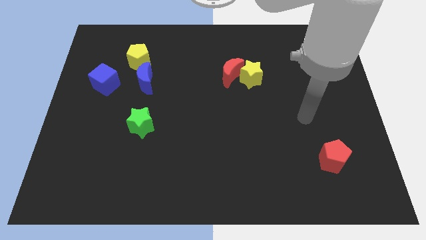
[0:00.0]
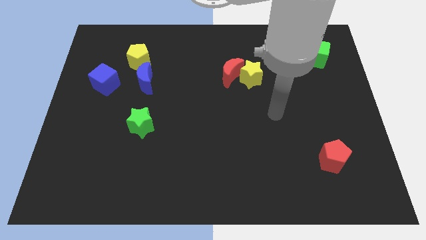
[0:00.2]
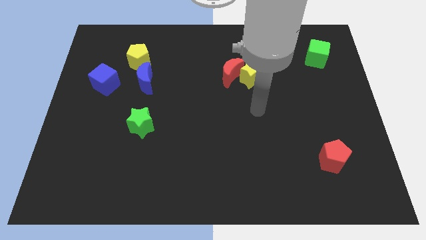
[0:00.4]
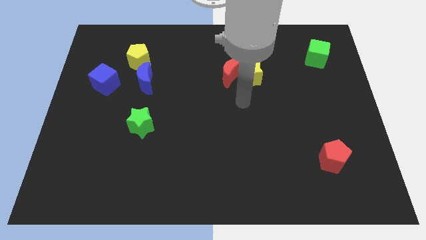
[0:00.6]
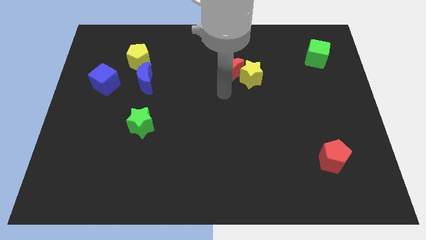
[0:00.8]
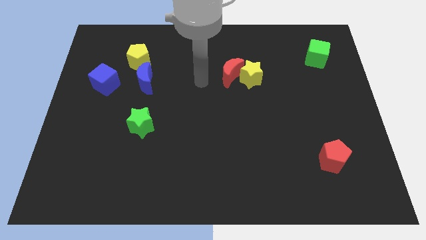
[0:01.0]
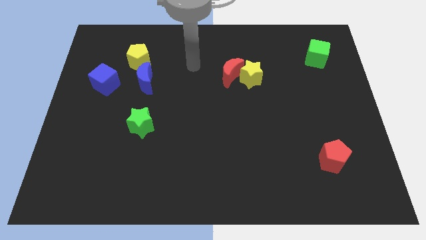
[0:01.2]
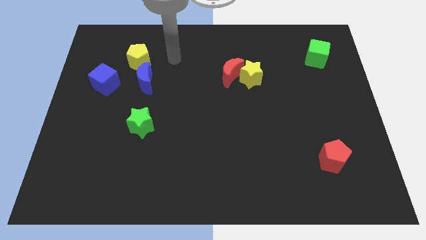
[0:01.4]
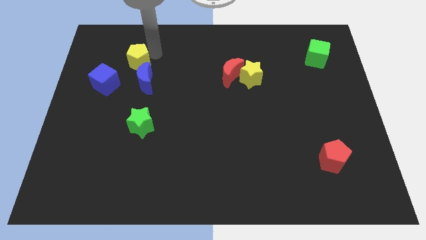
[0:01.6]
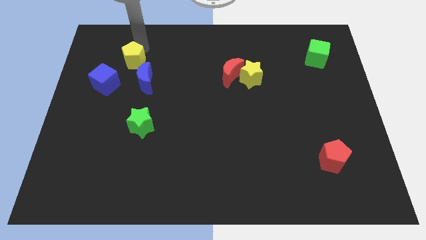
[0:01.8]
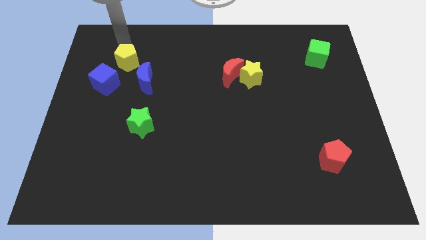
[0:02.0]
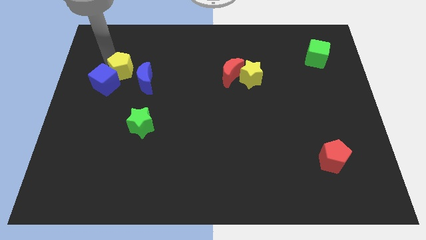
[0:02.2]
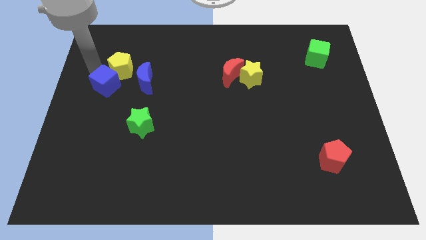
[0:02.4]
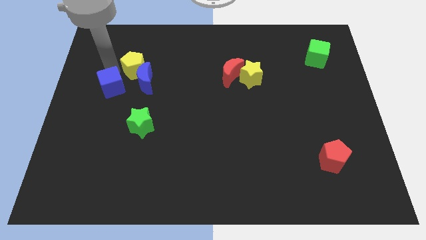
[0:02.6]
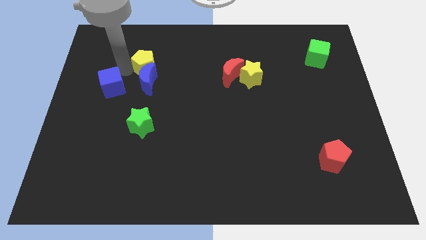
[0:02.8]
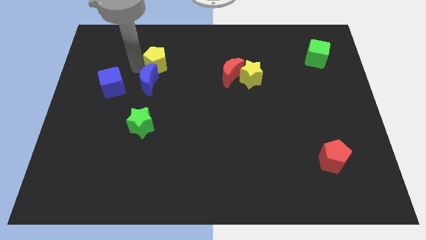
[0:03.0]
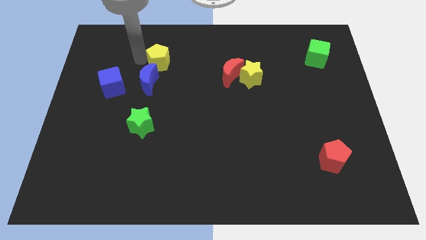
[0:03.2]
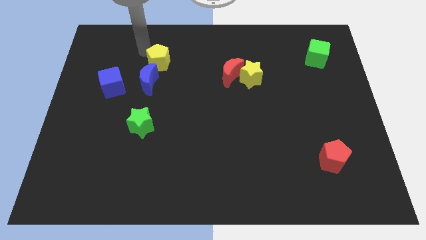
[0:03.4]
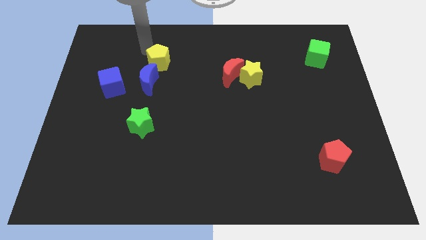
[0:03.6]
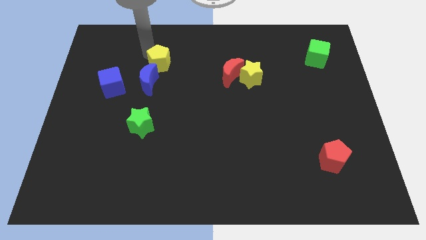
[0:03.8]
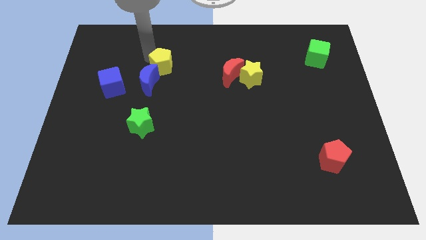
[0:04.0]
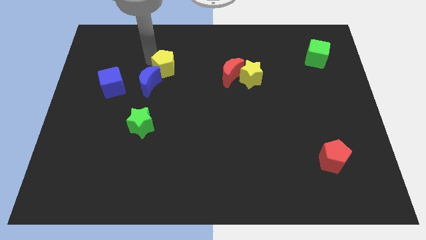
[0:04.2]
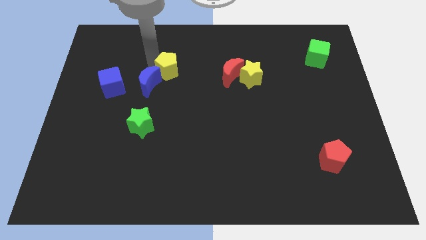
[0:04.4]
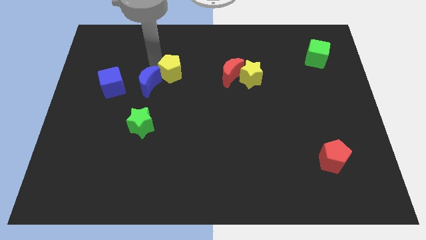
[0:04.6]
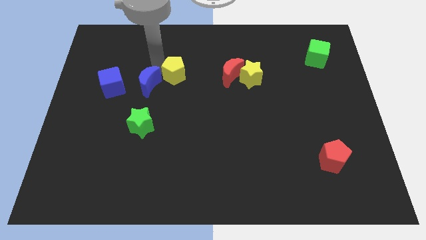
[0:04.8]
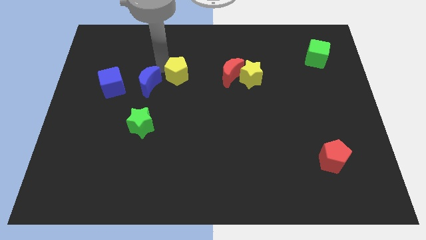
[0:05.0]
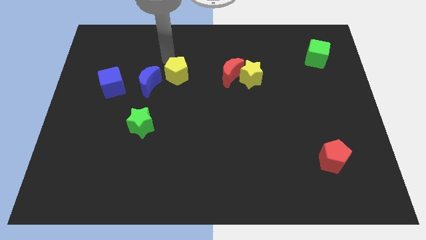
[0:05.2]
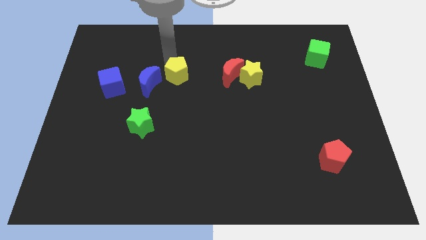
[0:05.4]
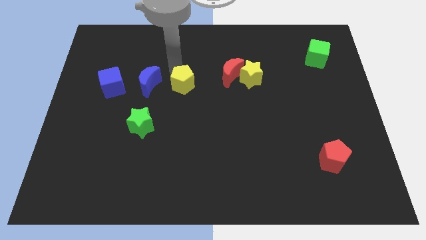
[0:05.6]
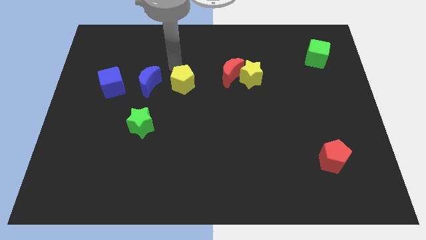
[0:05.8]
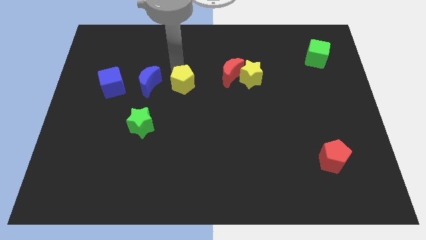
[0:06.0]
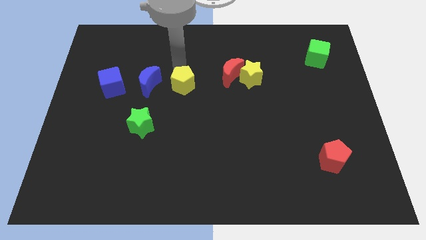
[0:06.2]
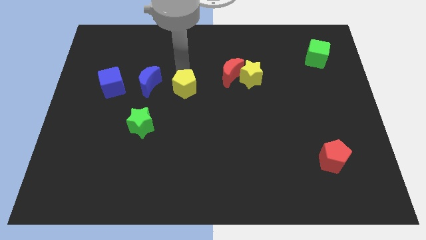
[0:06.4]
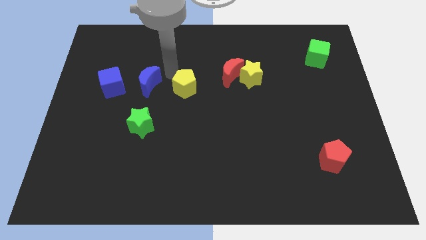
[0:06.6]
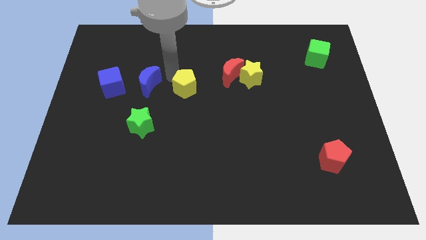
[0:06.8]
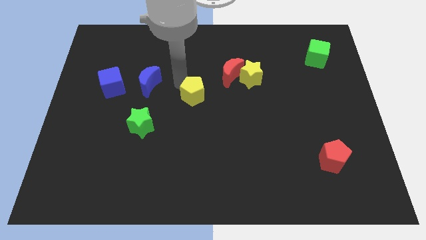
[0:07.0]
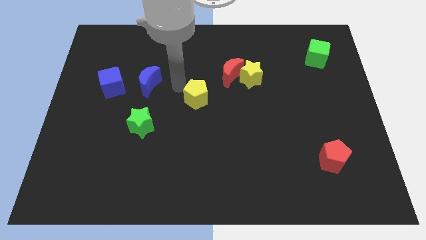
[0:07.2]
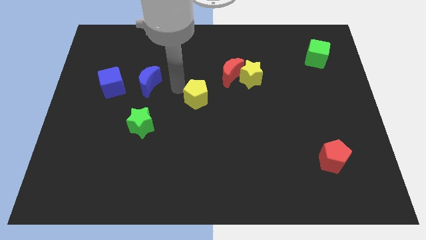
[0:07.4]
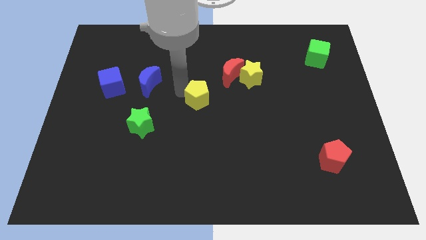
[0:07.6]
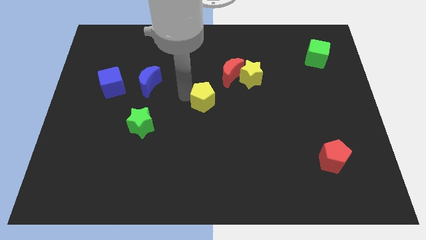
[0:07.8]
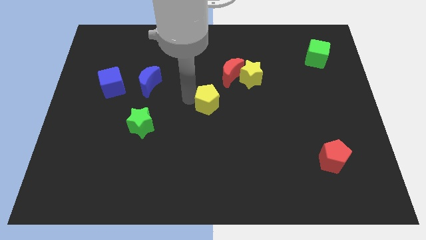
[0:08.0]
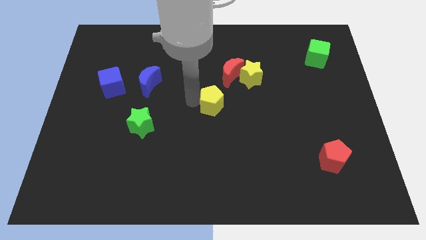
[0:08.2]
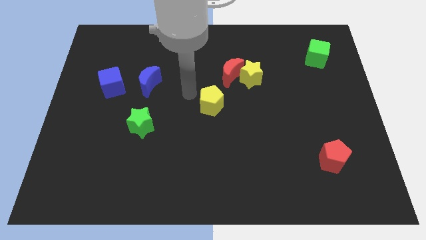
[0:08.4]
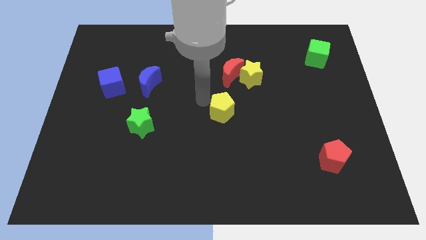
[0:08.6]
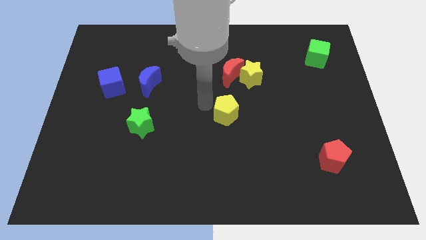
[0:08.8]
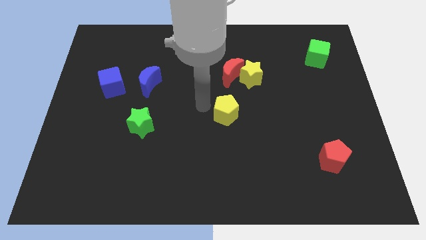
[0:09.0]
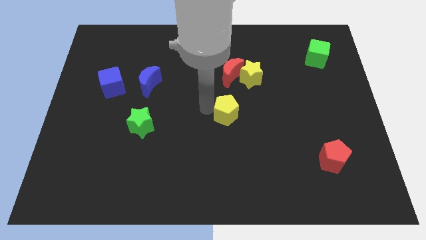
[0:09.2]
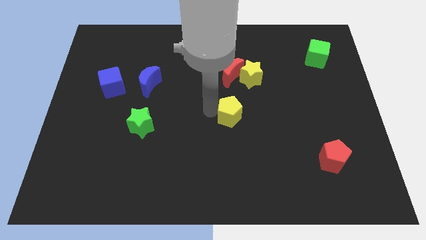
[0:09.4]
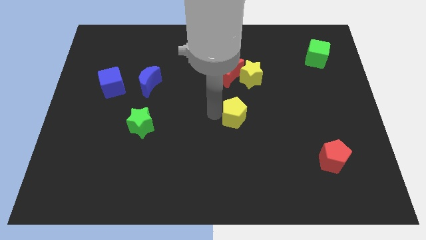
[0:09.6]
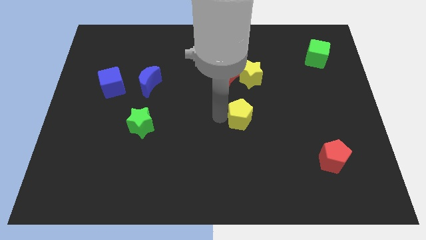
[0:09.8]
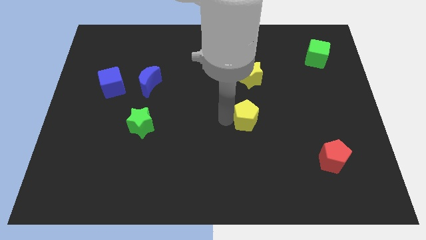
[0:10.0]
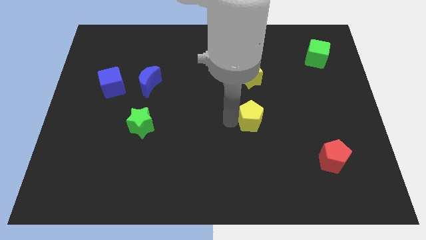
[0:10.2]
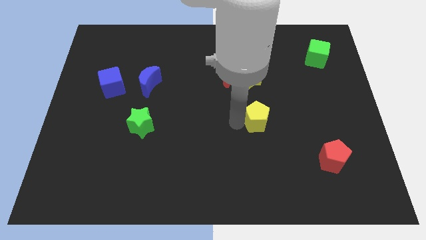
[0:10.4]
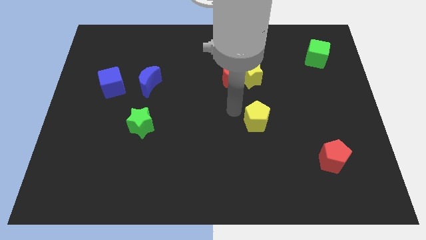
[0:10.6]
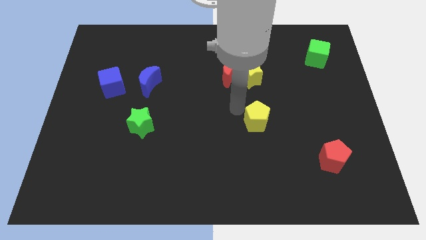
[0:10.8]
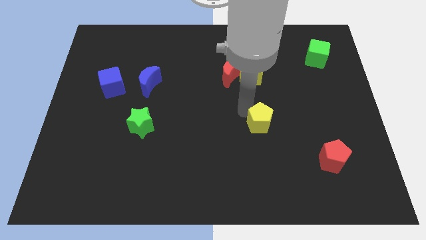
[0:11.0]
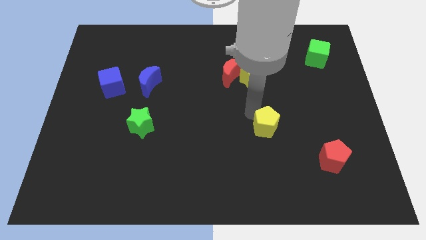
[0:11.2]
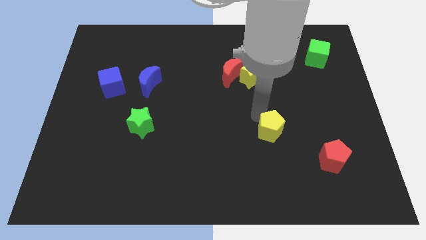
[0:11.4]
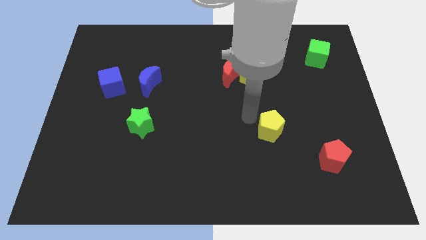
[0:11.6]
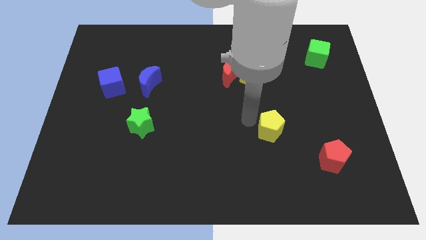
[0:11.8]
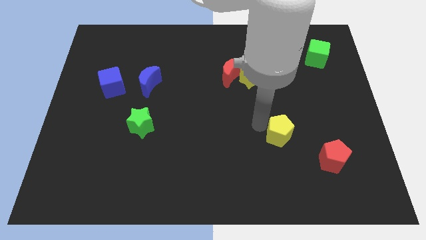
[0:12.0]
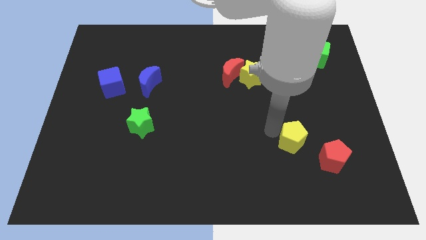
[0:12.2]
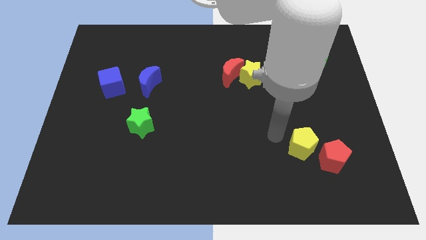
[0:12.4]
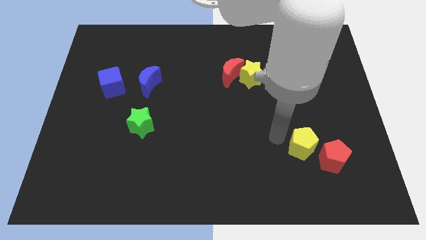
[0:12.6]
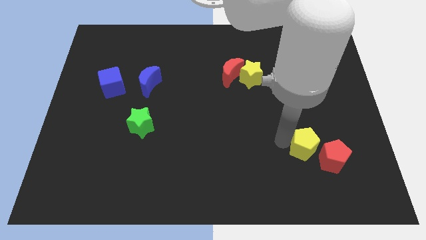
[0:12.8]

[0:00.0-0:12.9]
move the yellow pentagon next to the red pentagon
